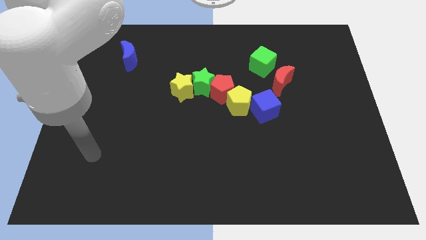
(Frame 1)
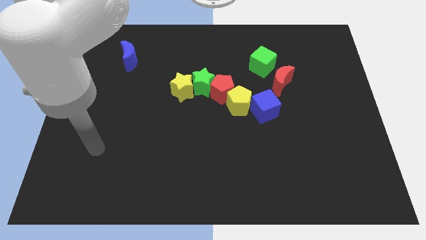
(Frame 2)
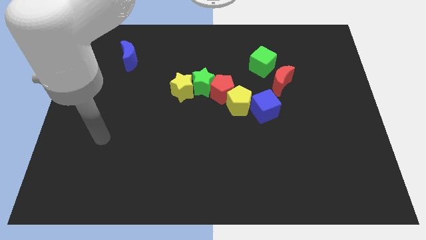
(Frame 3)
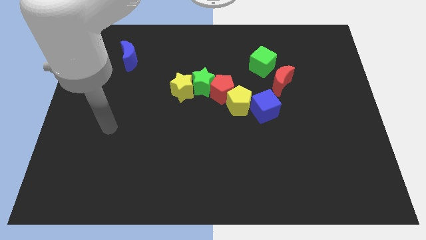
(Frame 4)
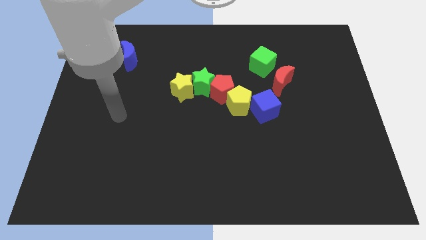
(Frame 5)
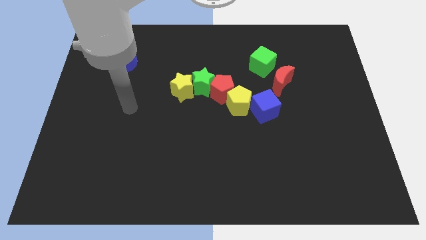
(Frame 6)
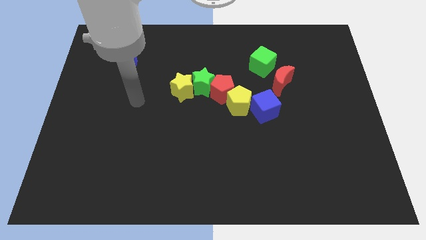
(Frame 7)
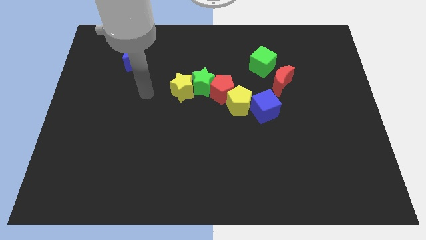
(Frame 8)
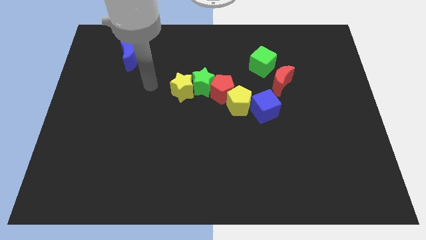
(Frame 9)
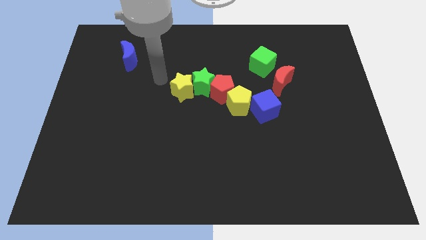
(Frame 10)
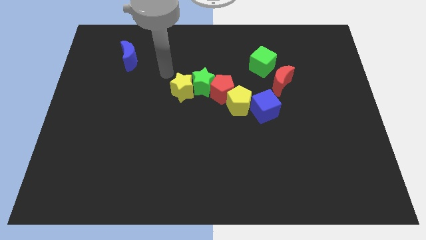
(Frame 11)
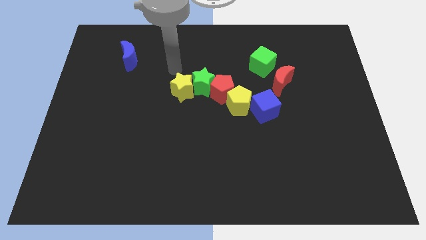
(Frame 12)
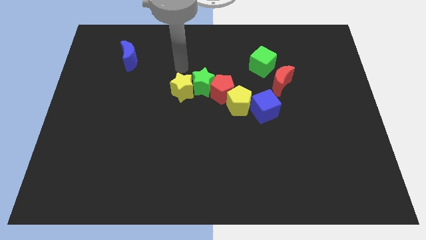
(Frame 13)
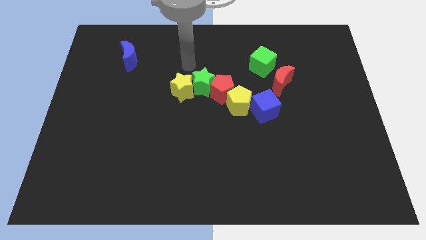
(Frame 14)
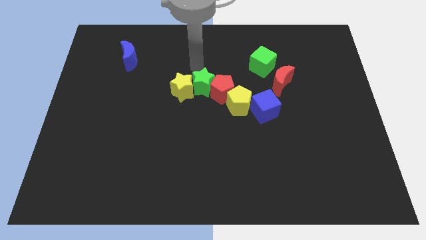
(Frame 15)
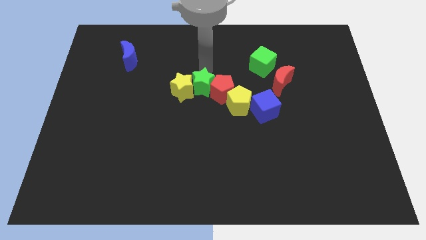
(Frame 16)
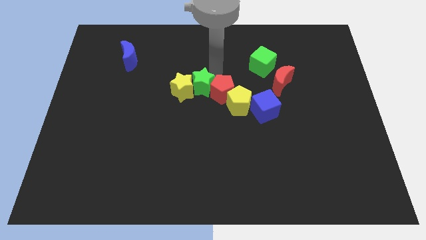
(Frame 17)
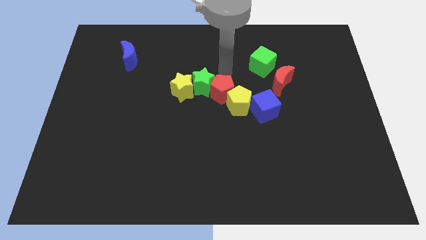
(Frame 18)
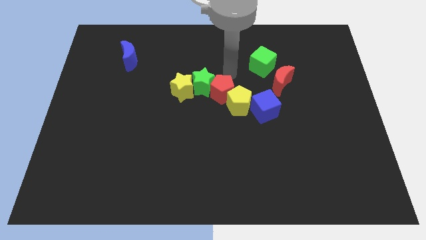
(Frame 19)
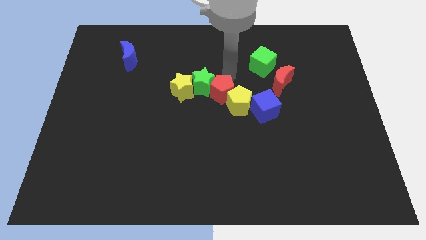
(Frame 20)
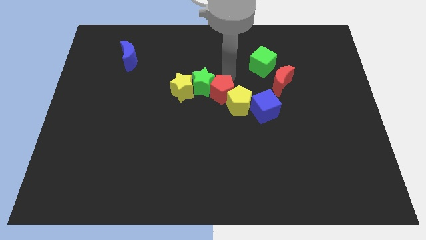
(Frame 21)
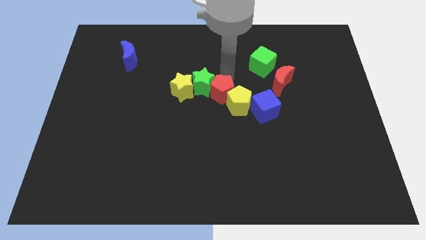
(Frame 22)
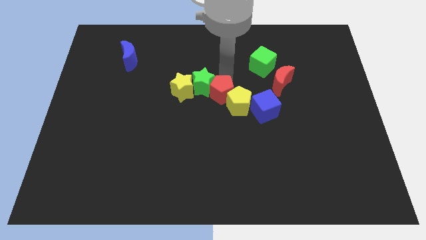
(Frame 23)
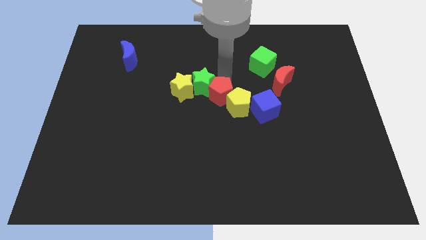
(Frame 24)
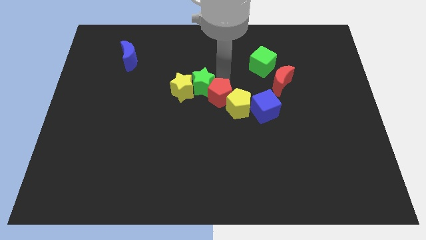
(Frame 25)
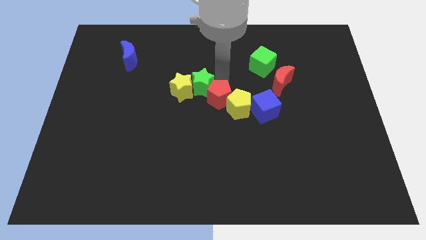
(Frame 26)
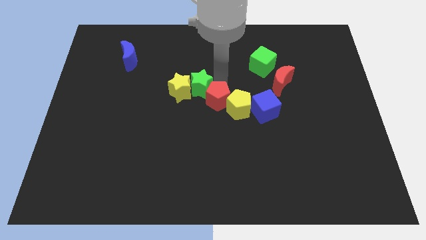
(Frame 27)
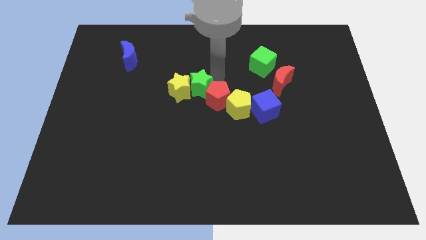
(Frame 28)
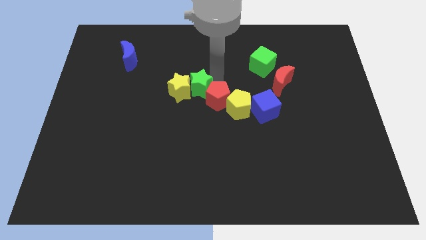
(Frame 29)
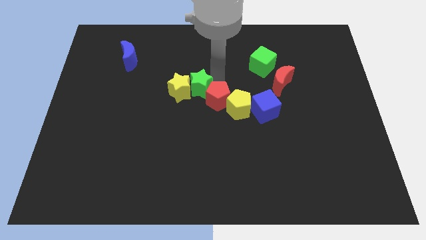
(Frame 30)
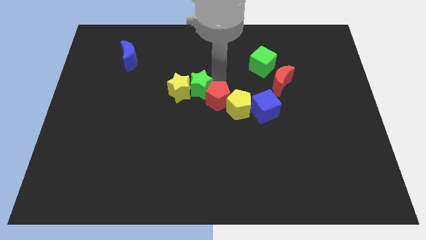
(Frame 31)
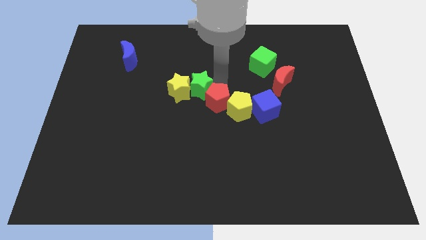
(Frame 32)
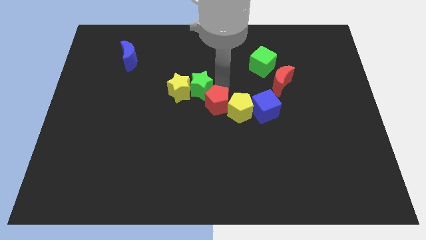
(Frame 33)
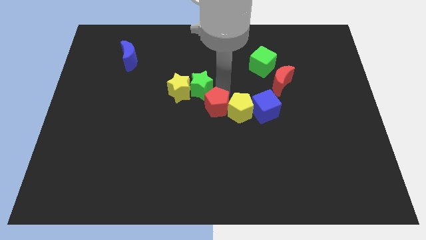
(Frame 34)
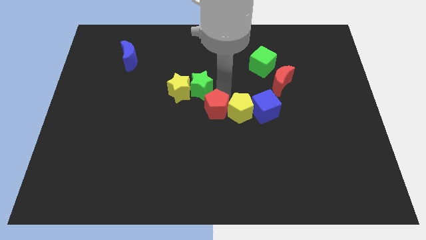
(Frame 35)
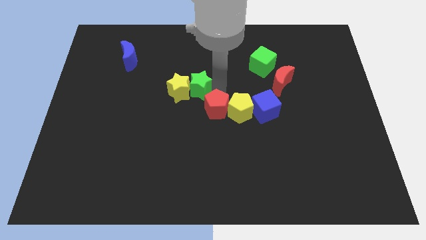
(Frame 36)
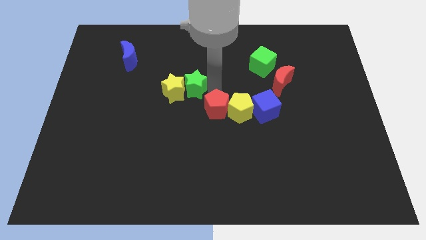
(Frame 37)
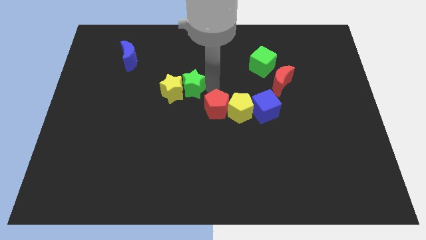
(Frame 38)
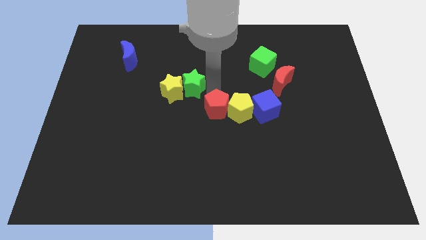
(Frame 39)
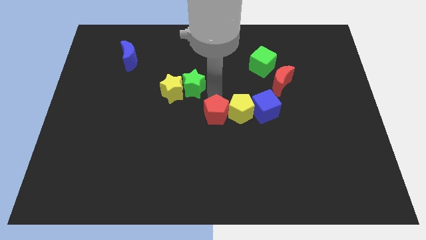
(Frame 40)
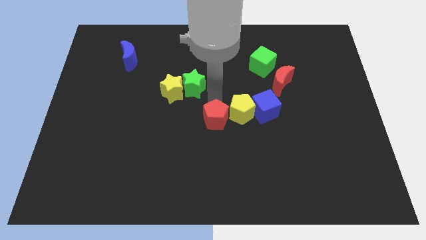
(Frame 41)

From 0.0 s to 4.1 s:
move the red pentagon down slightly

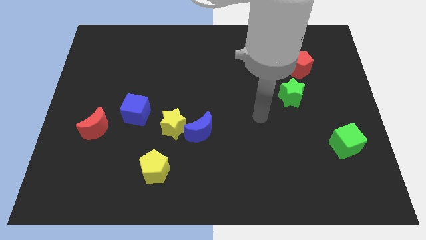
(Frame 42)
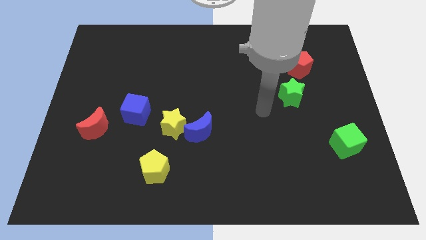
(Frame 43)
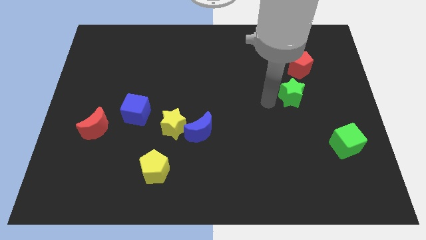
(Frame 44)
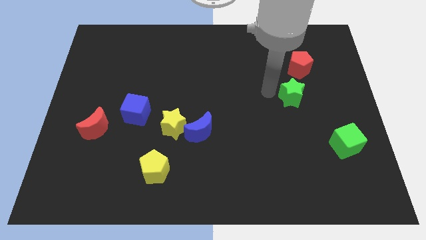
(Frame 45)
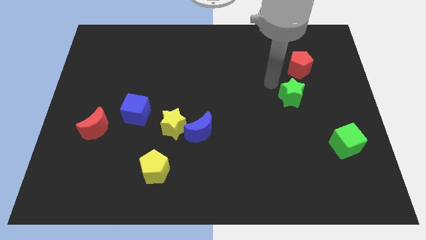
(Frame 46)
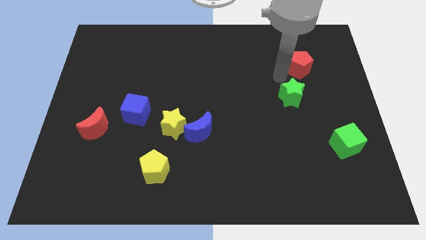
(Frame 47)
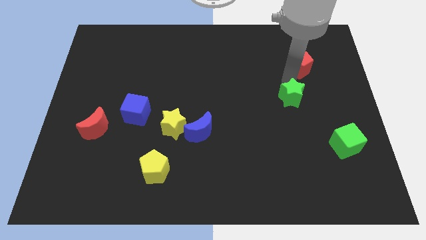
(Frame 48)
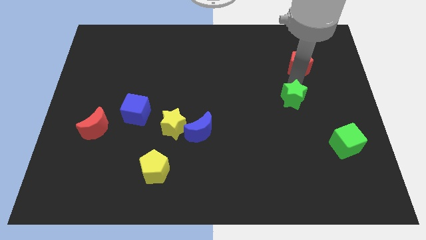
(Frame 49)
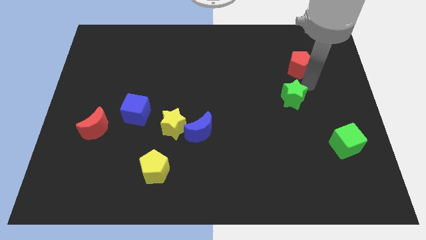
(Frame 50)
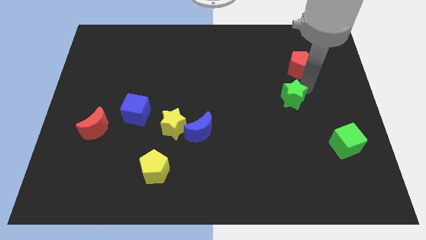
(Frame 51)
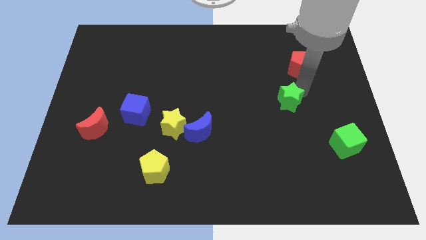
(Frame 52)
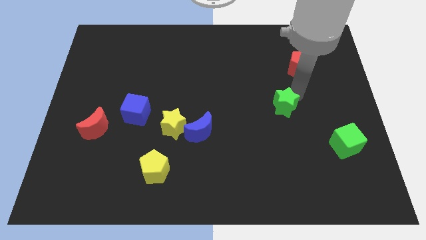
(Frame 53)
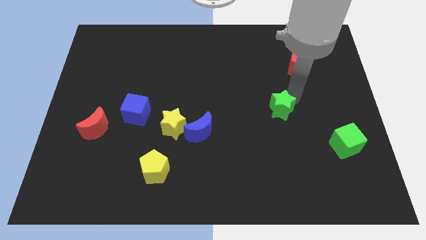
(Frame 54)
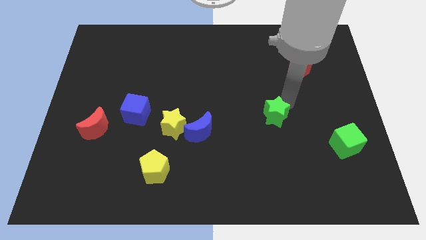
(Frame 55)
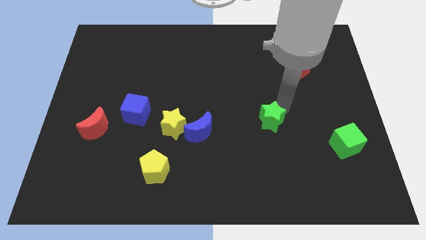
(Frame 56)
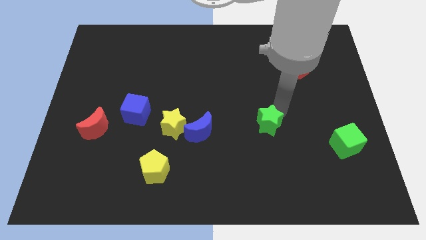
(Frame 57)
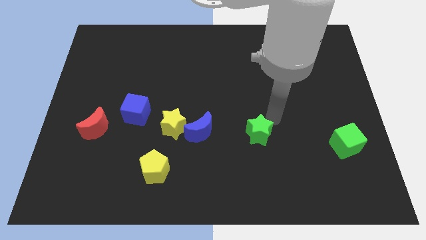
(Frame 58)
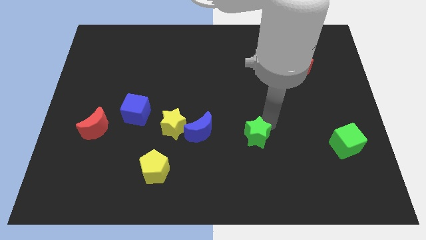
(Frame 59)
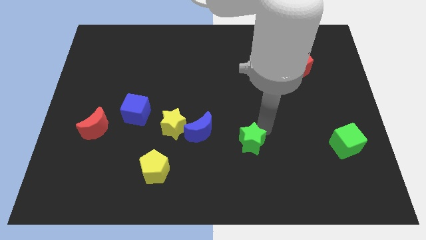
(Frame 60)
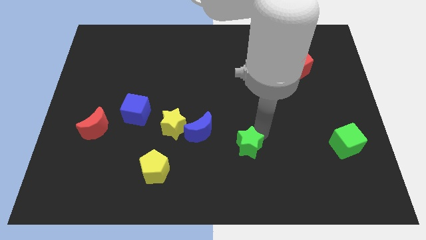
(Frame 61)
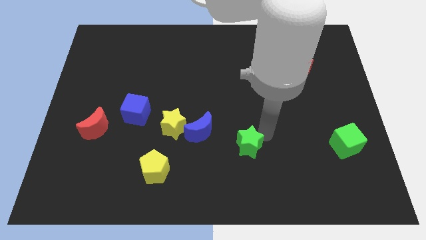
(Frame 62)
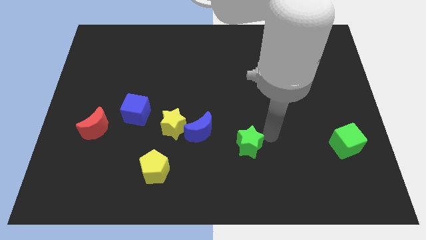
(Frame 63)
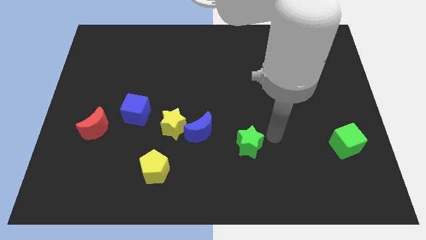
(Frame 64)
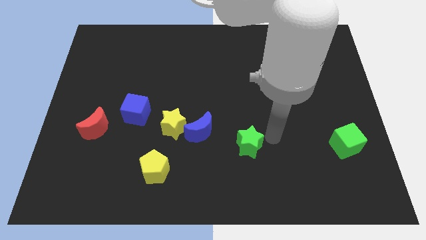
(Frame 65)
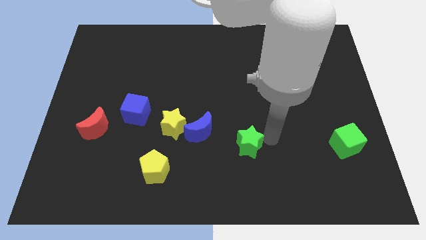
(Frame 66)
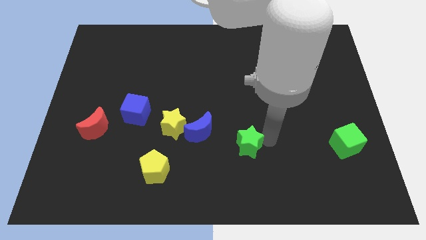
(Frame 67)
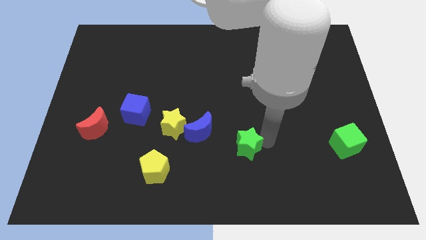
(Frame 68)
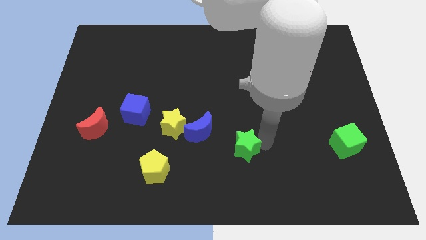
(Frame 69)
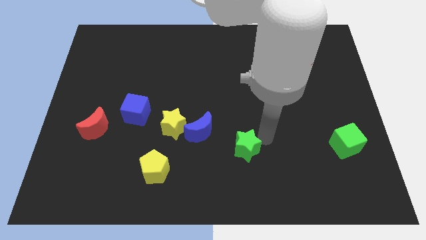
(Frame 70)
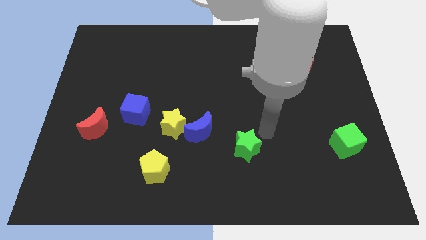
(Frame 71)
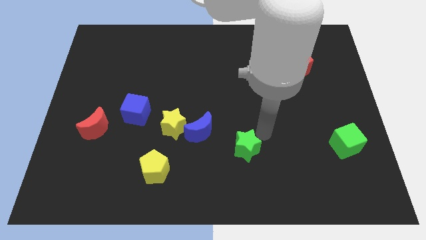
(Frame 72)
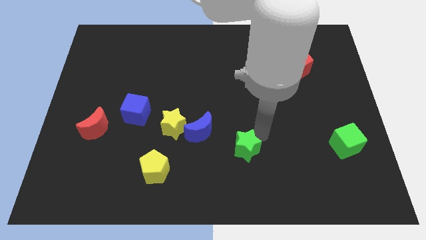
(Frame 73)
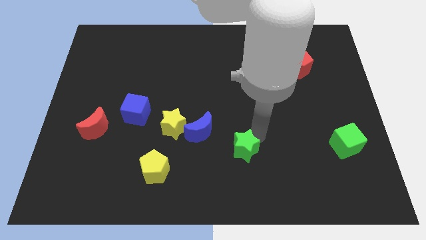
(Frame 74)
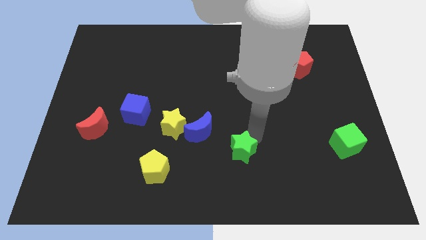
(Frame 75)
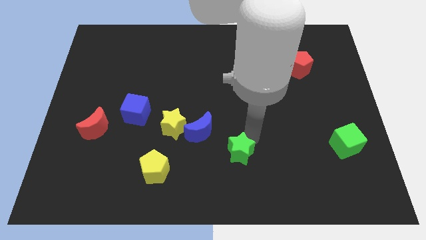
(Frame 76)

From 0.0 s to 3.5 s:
slide the green star down and then left
